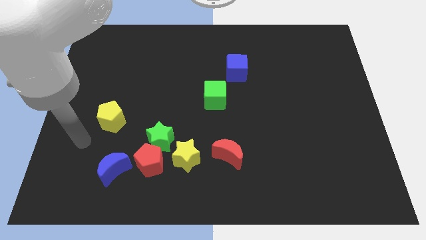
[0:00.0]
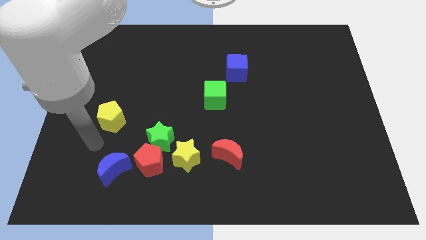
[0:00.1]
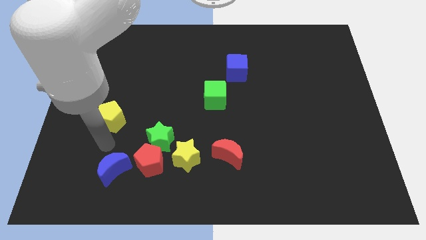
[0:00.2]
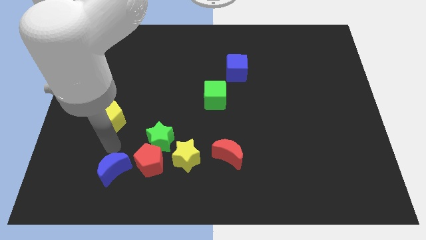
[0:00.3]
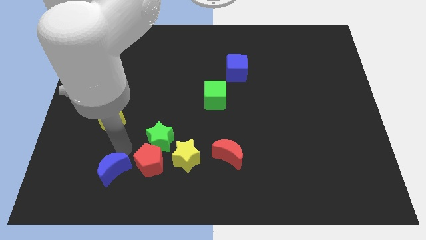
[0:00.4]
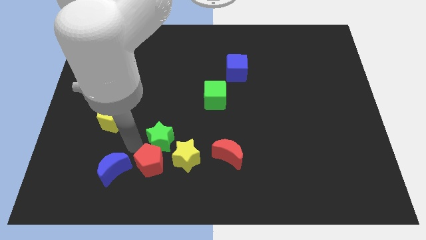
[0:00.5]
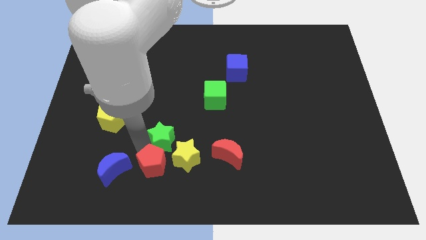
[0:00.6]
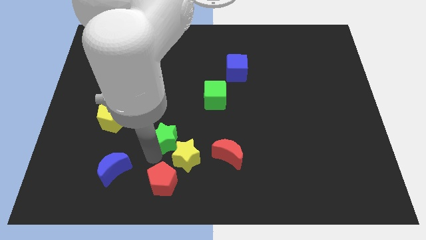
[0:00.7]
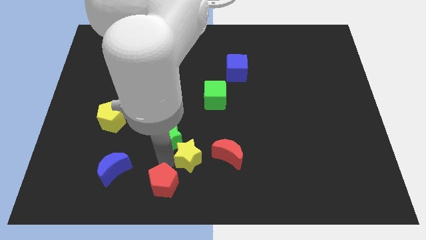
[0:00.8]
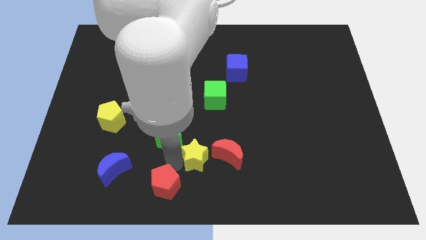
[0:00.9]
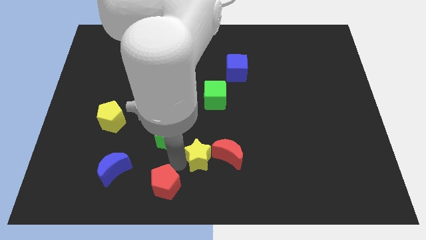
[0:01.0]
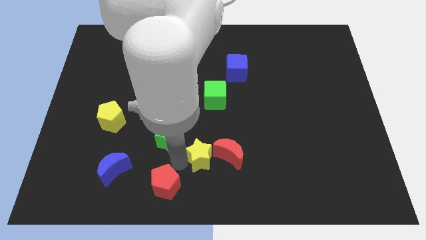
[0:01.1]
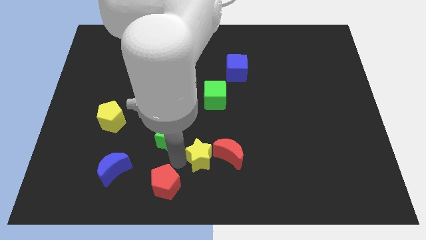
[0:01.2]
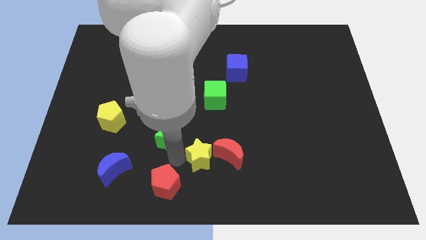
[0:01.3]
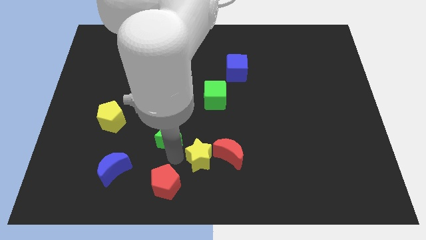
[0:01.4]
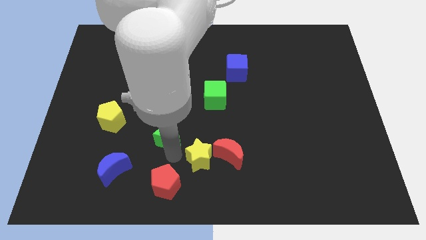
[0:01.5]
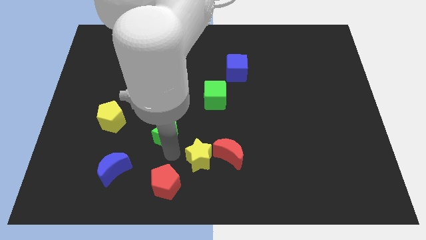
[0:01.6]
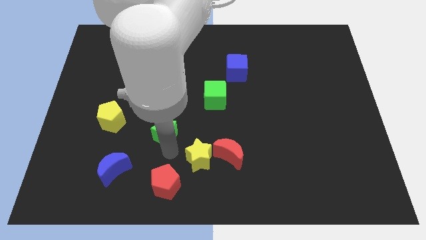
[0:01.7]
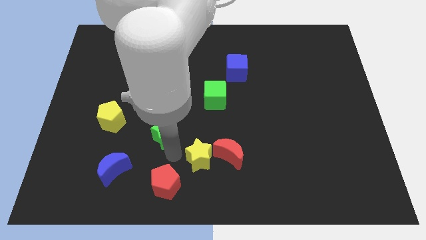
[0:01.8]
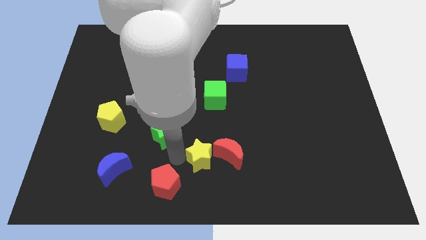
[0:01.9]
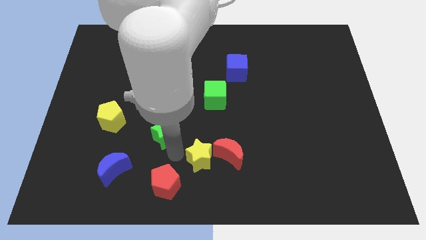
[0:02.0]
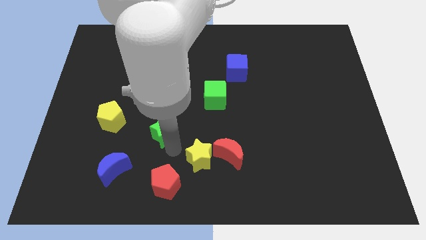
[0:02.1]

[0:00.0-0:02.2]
separate the green star from the red pentagon and yellow star

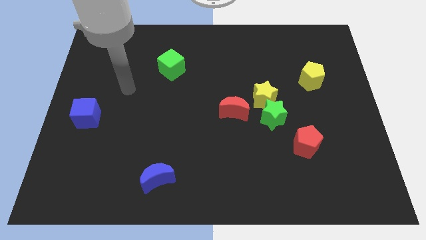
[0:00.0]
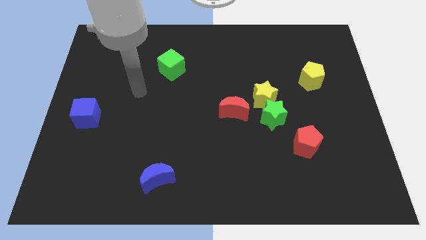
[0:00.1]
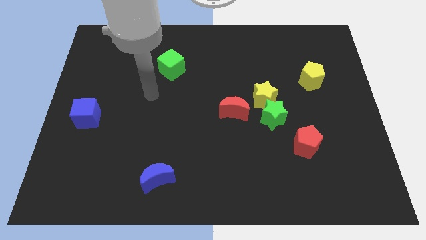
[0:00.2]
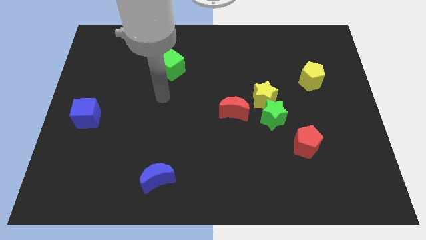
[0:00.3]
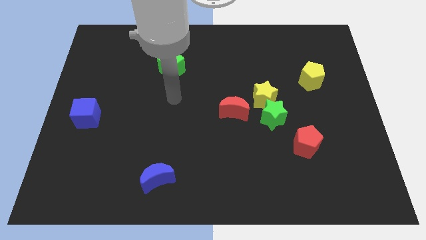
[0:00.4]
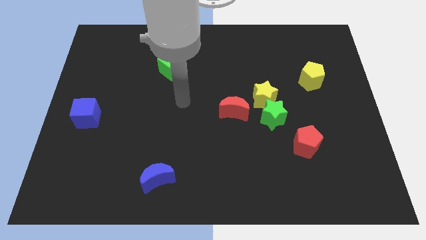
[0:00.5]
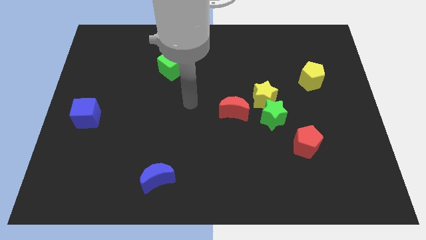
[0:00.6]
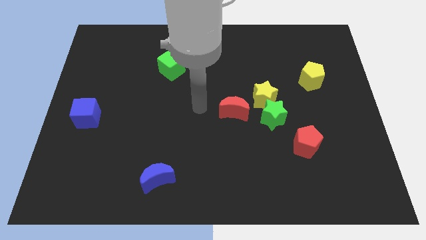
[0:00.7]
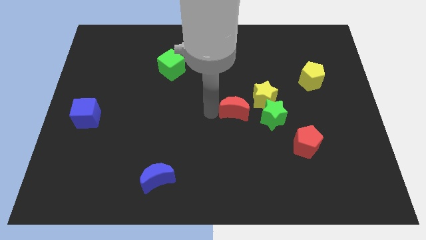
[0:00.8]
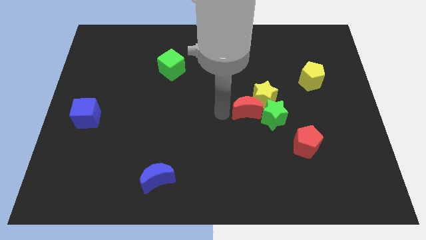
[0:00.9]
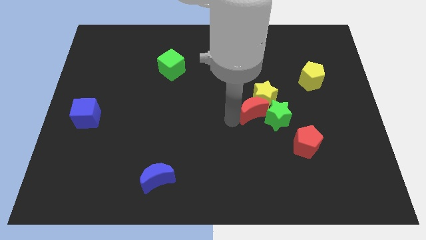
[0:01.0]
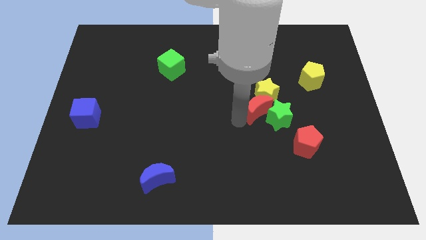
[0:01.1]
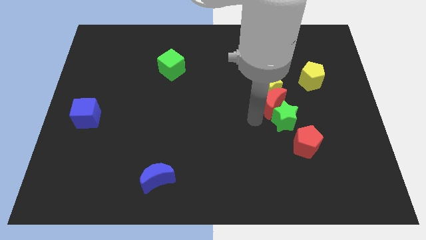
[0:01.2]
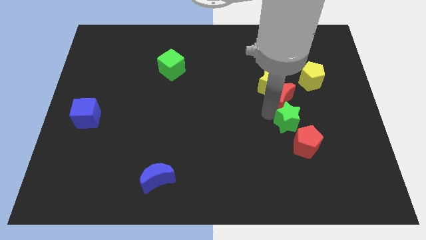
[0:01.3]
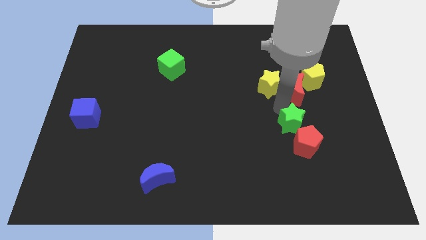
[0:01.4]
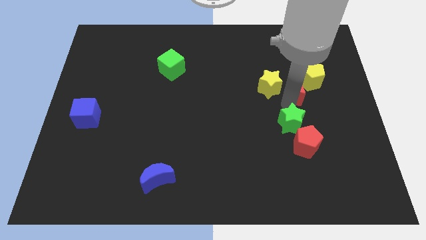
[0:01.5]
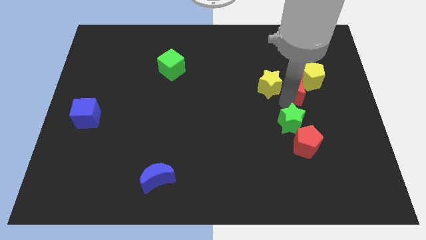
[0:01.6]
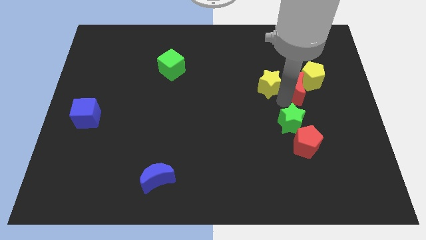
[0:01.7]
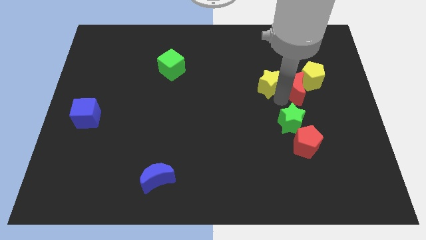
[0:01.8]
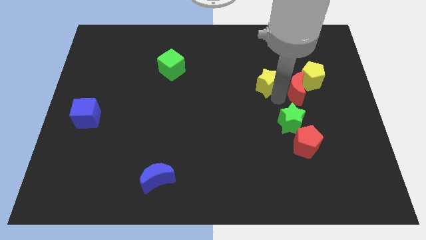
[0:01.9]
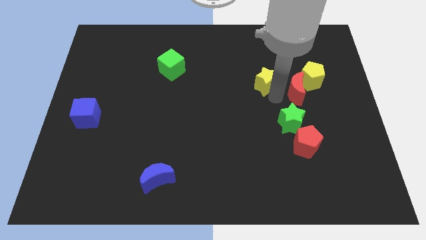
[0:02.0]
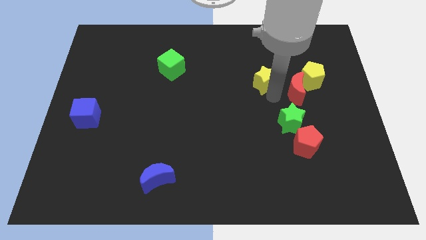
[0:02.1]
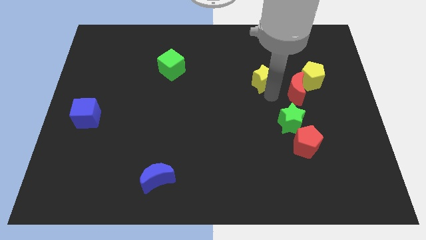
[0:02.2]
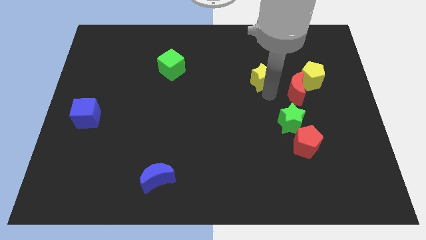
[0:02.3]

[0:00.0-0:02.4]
pull the yellow star apart from the green star and red moon

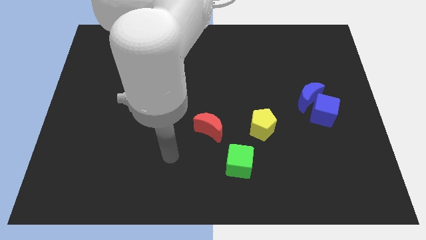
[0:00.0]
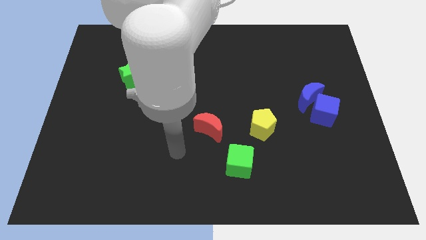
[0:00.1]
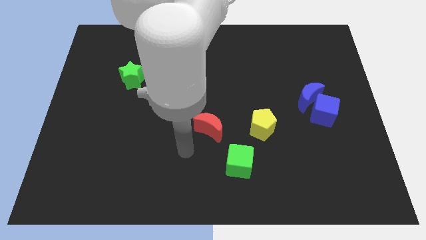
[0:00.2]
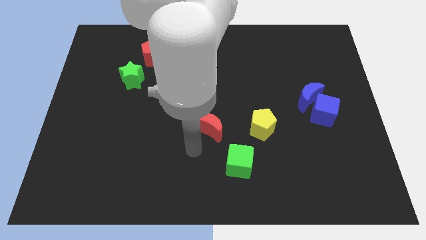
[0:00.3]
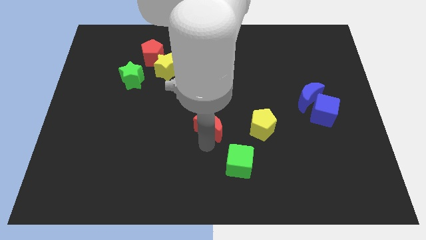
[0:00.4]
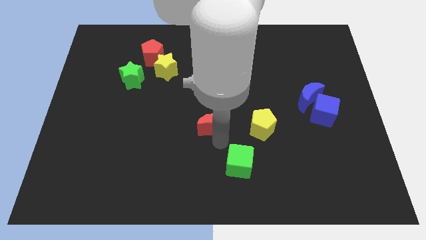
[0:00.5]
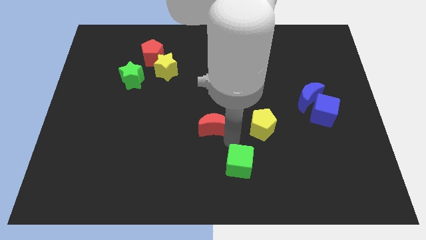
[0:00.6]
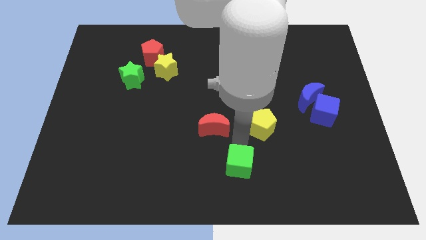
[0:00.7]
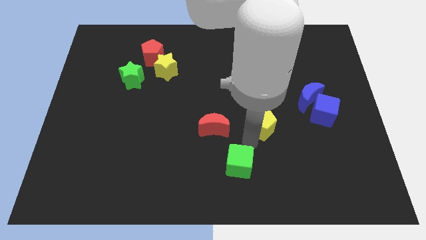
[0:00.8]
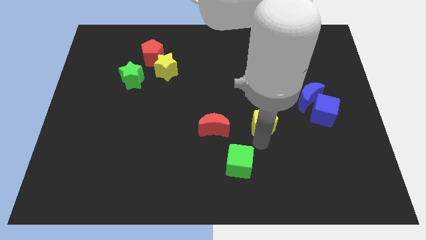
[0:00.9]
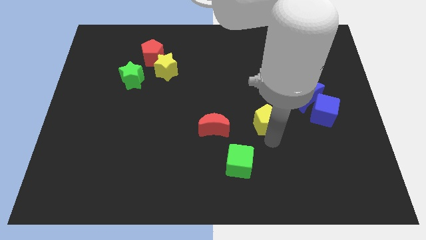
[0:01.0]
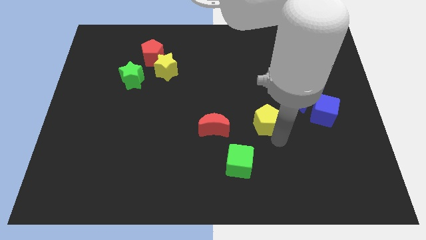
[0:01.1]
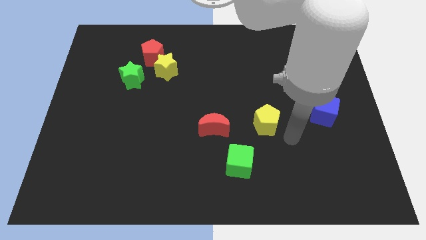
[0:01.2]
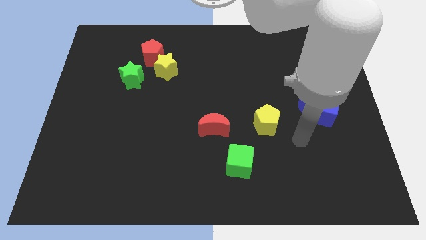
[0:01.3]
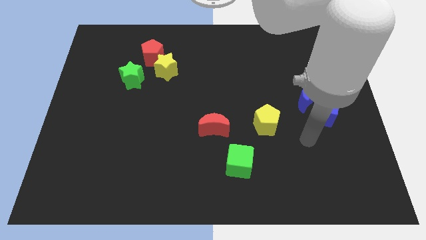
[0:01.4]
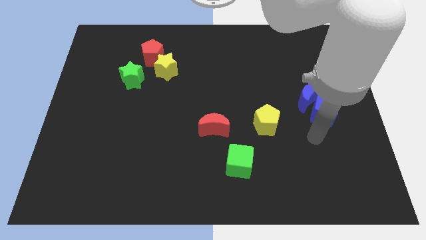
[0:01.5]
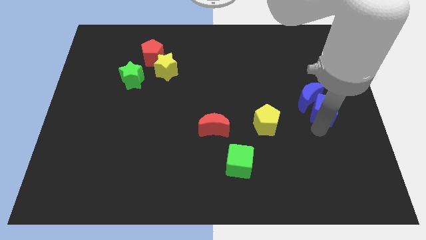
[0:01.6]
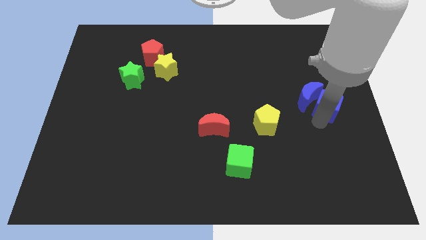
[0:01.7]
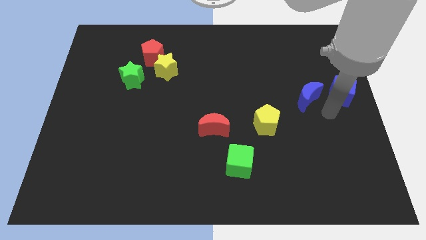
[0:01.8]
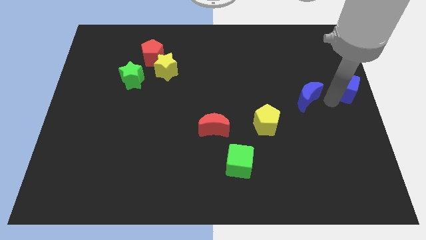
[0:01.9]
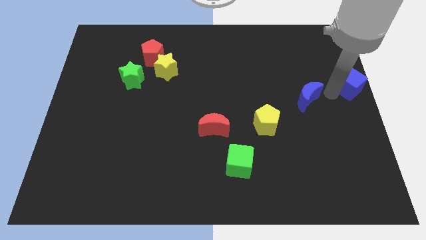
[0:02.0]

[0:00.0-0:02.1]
separate the blue moon from the blue cube

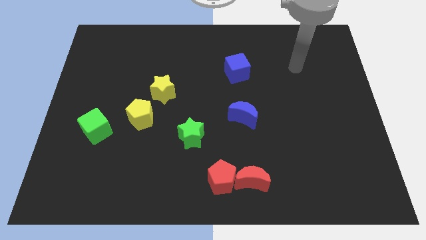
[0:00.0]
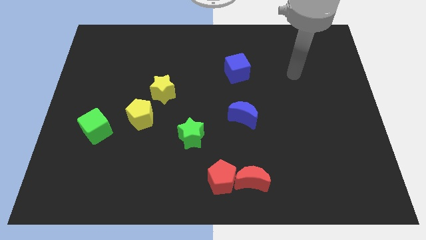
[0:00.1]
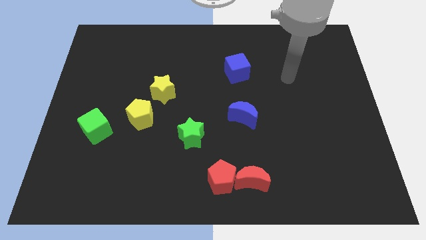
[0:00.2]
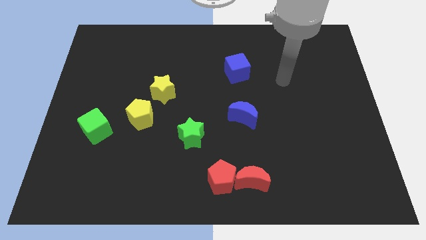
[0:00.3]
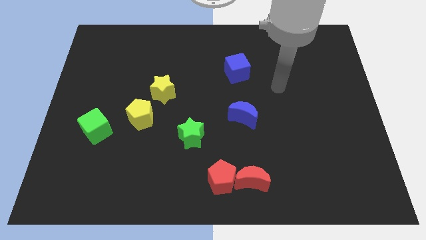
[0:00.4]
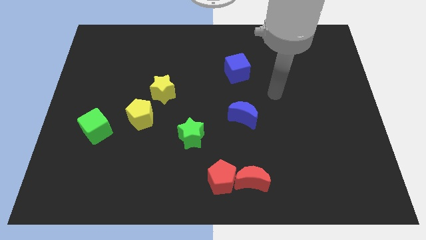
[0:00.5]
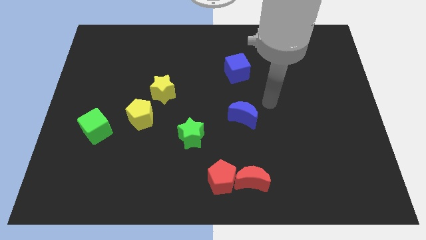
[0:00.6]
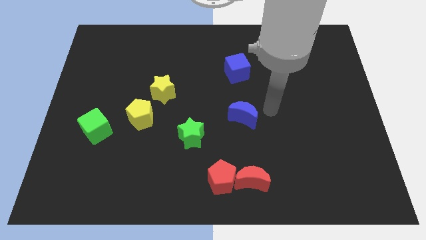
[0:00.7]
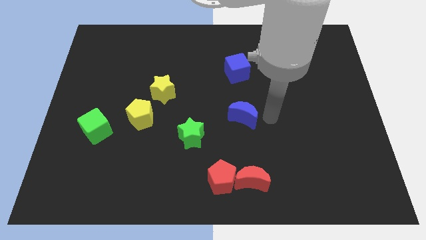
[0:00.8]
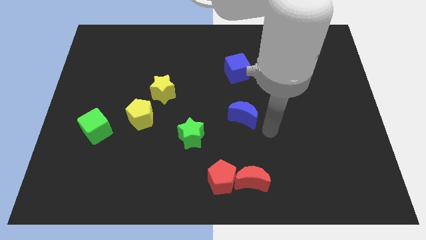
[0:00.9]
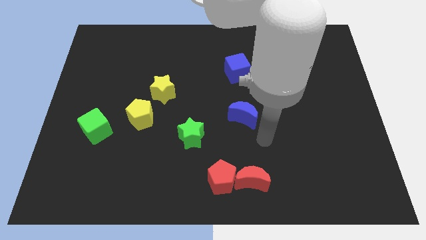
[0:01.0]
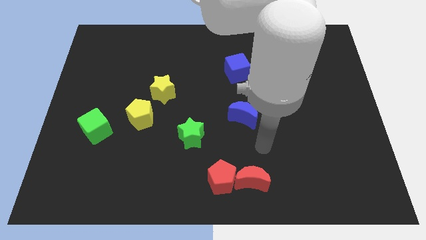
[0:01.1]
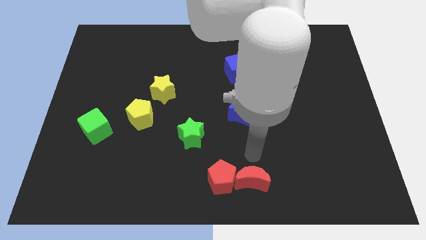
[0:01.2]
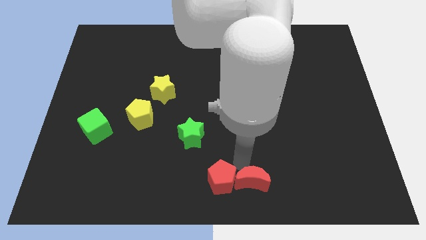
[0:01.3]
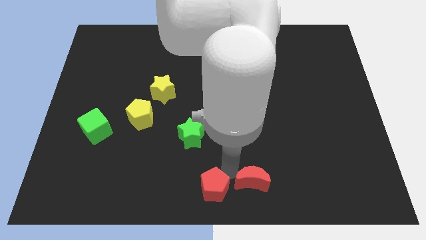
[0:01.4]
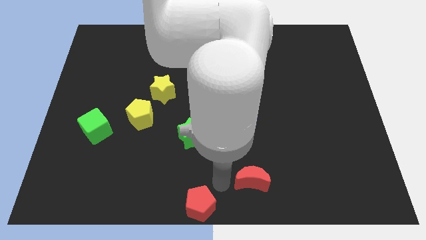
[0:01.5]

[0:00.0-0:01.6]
move the red moon away from the red pentagon

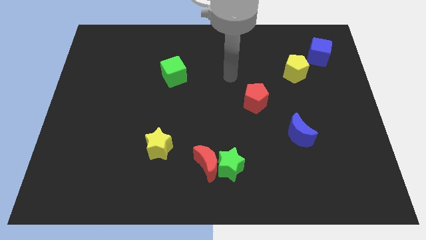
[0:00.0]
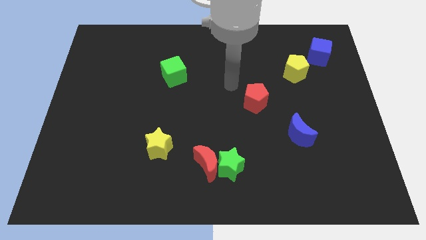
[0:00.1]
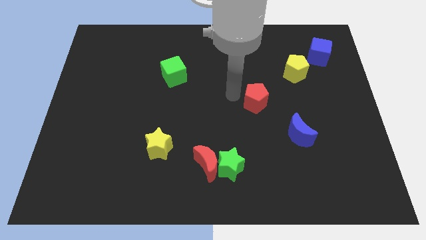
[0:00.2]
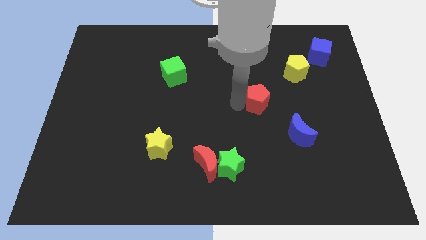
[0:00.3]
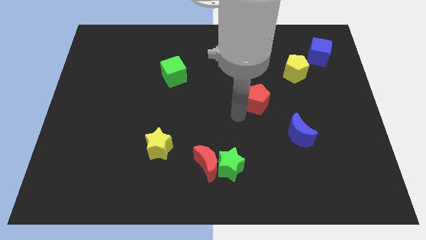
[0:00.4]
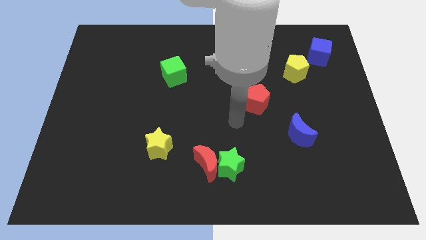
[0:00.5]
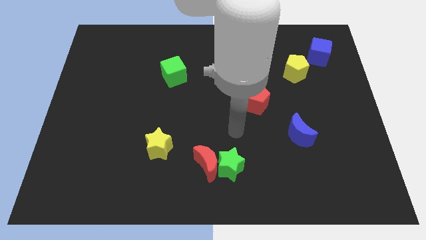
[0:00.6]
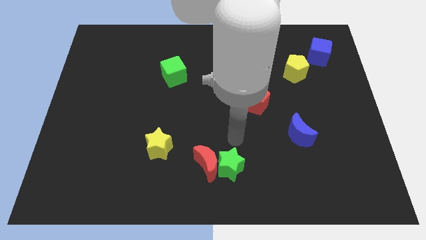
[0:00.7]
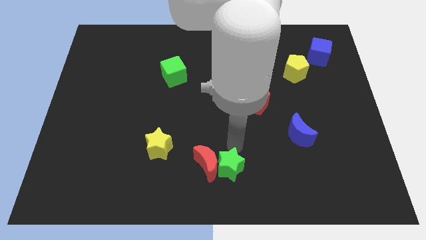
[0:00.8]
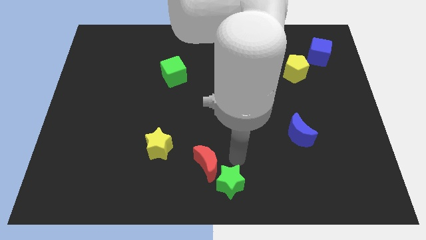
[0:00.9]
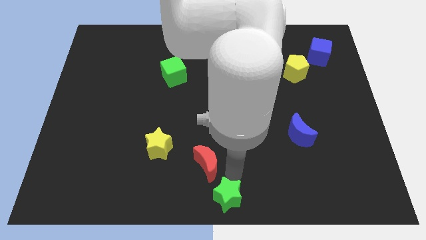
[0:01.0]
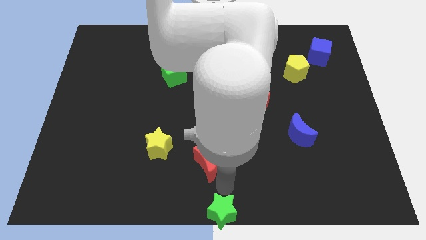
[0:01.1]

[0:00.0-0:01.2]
separate the red moon from the green star
